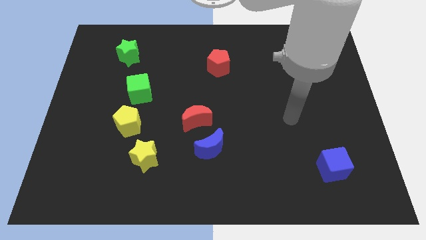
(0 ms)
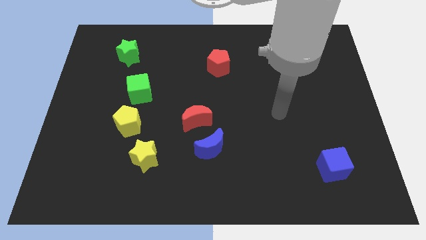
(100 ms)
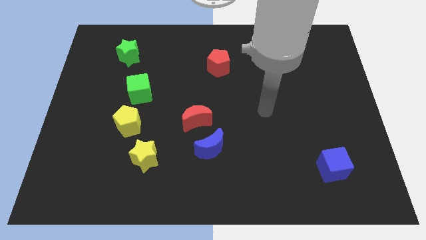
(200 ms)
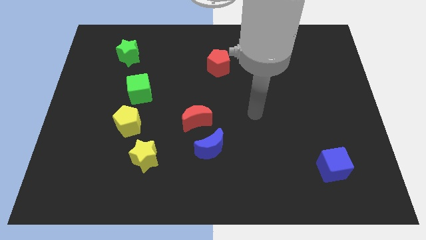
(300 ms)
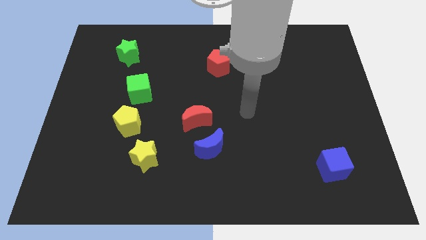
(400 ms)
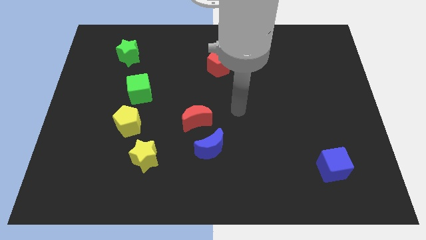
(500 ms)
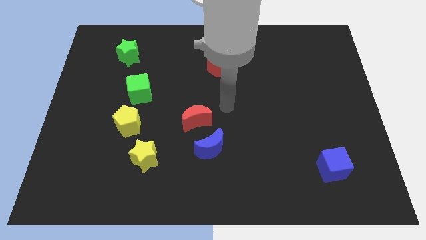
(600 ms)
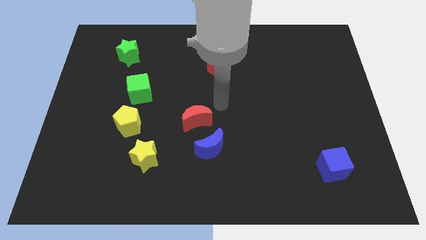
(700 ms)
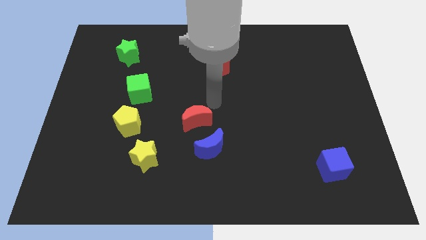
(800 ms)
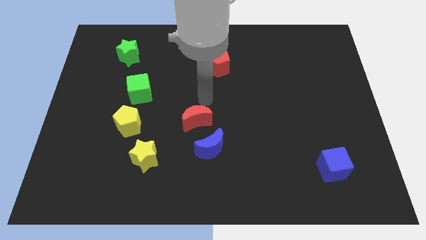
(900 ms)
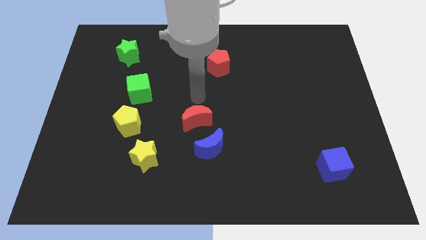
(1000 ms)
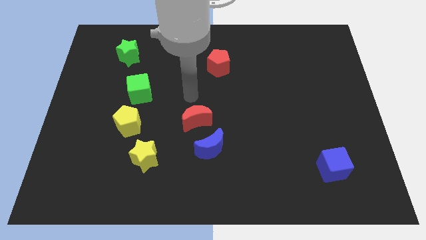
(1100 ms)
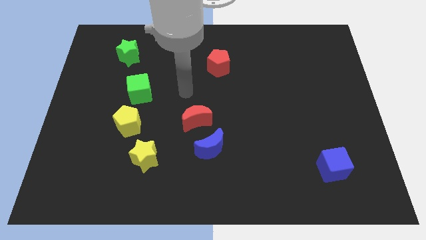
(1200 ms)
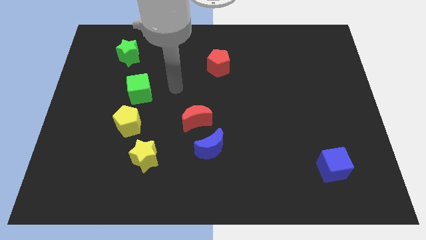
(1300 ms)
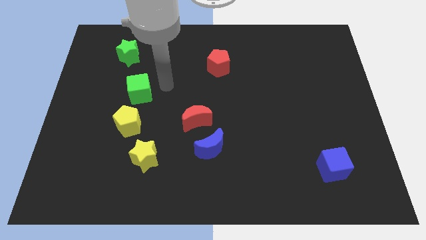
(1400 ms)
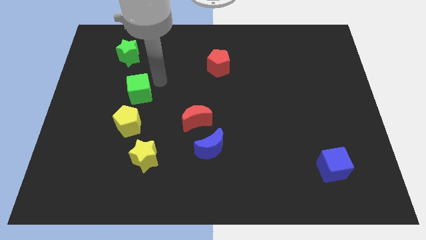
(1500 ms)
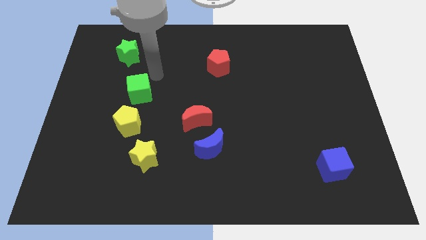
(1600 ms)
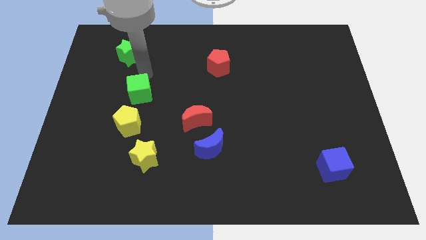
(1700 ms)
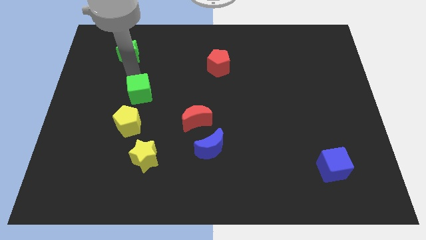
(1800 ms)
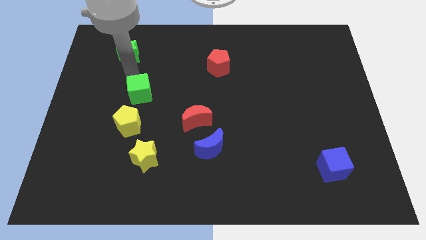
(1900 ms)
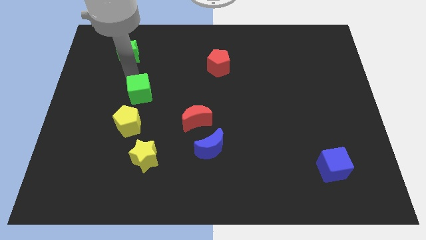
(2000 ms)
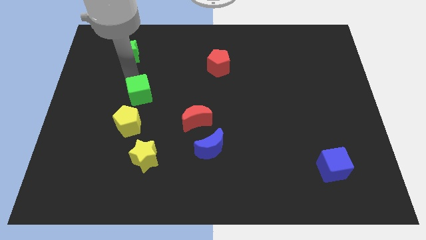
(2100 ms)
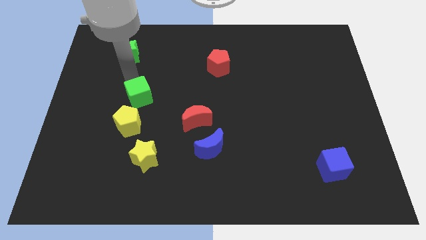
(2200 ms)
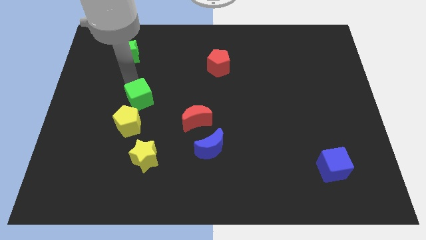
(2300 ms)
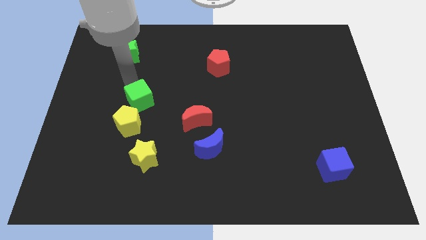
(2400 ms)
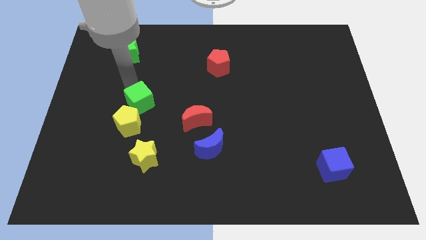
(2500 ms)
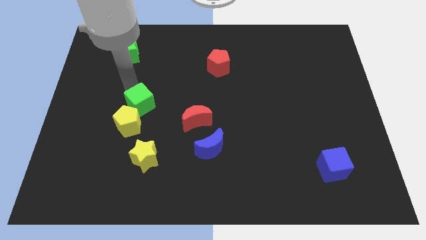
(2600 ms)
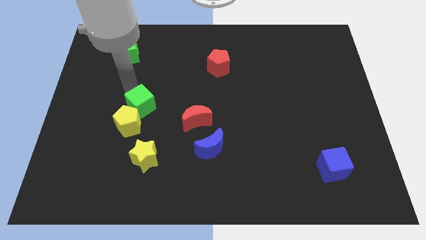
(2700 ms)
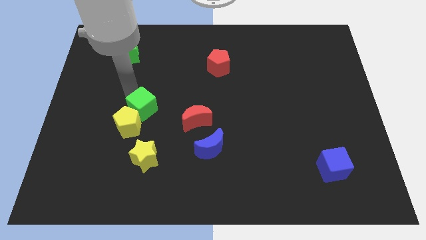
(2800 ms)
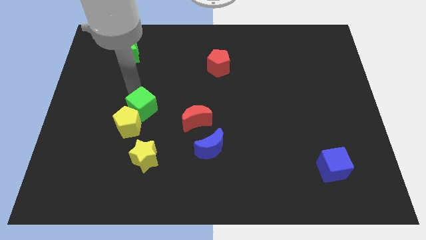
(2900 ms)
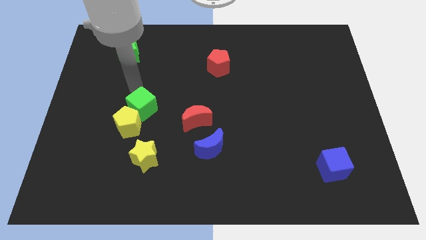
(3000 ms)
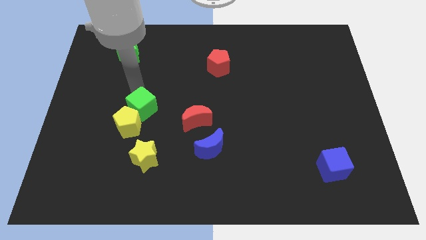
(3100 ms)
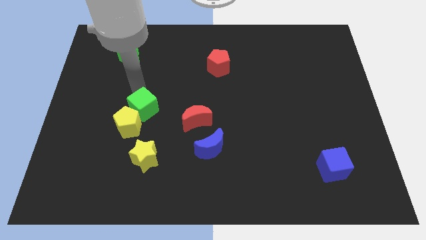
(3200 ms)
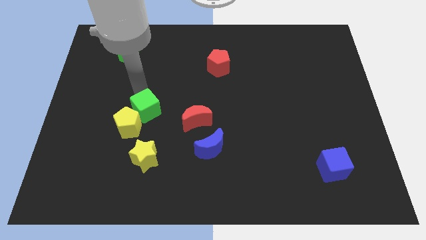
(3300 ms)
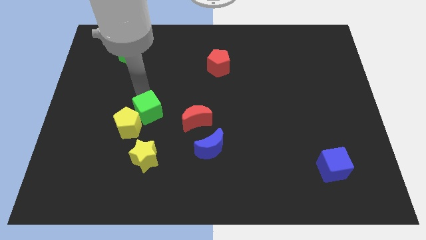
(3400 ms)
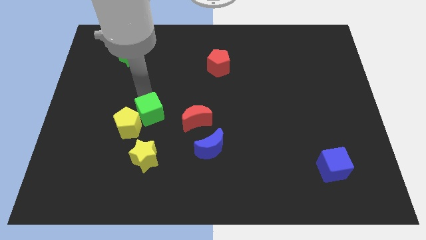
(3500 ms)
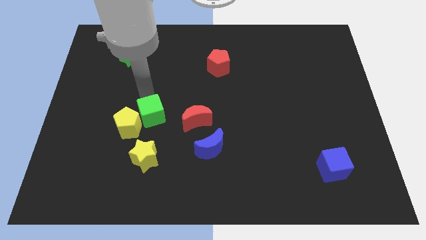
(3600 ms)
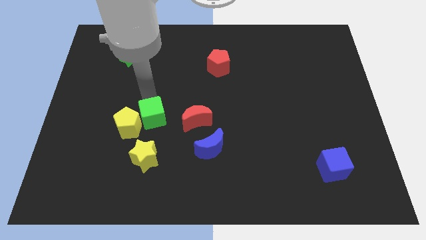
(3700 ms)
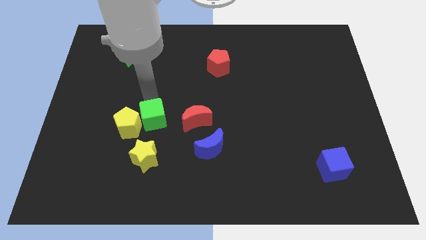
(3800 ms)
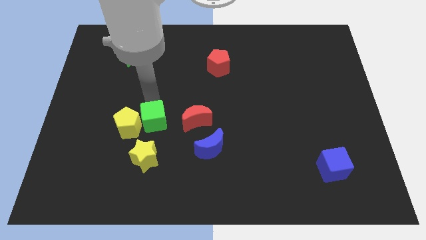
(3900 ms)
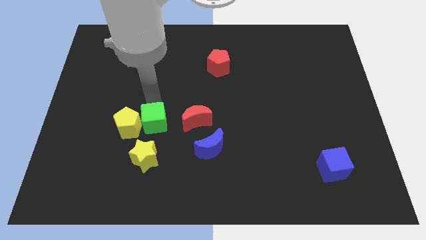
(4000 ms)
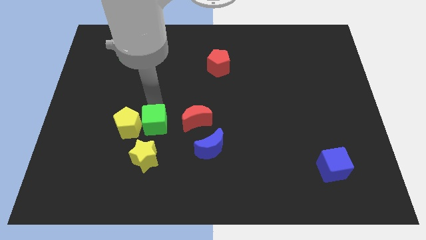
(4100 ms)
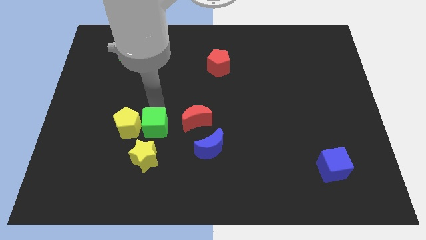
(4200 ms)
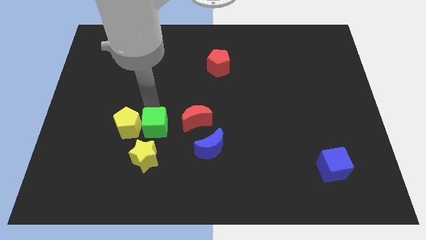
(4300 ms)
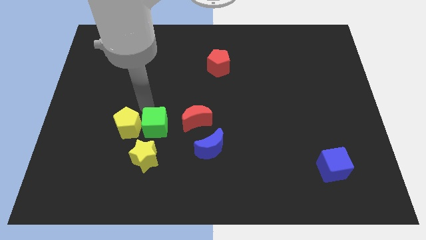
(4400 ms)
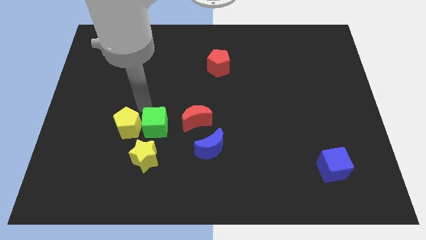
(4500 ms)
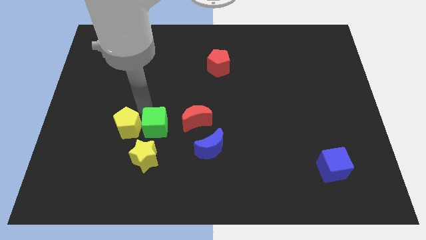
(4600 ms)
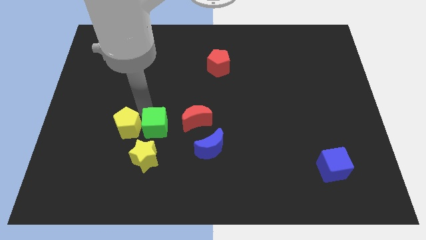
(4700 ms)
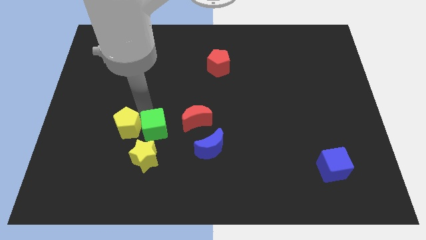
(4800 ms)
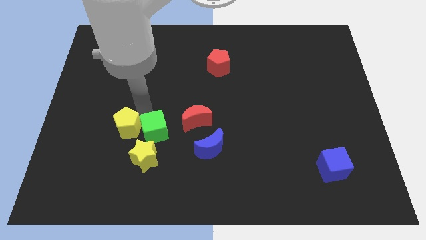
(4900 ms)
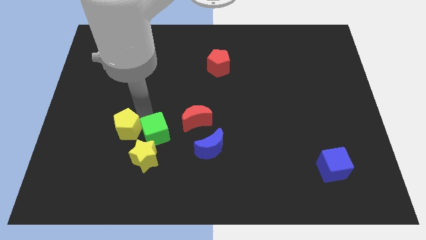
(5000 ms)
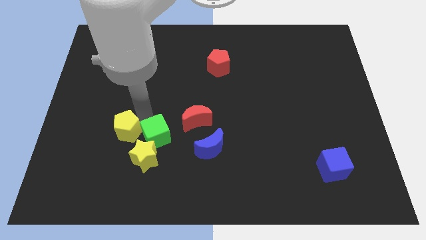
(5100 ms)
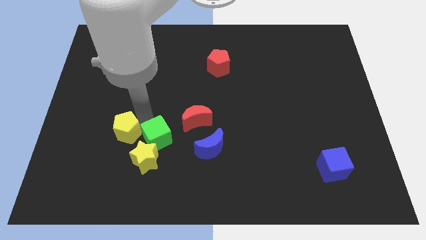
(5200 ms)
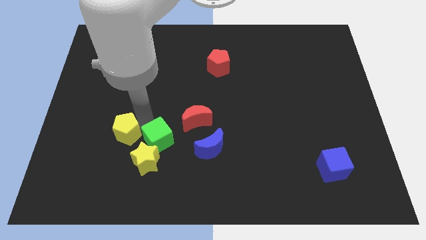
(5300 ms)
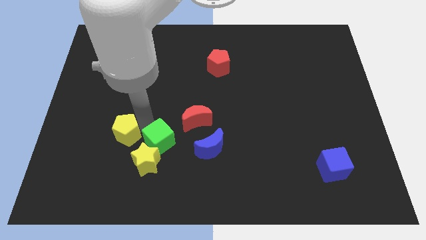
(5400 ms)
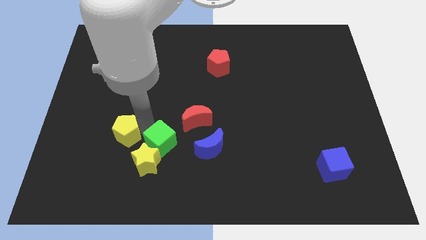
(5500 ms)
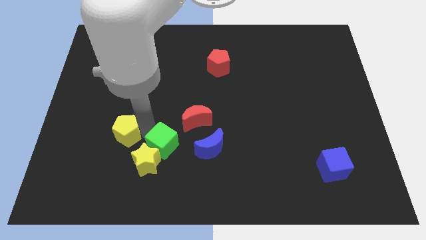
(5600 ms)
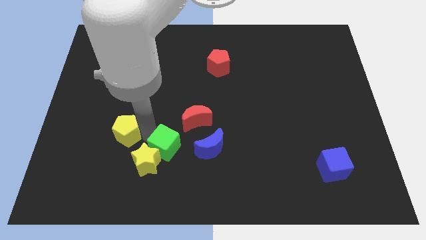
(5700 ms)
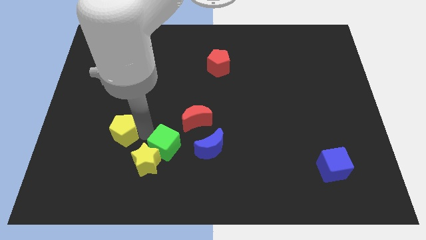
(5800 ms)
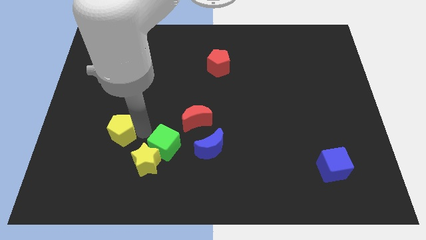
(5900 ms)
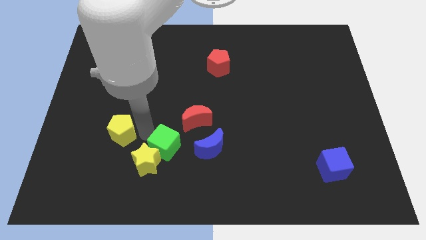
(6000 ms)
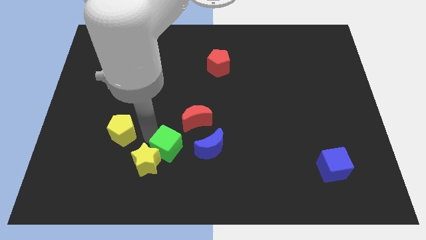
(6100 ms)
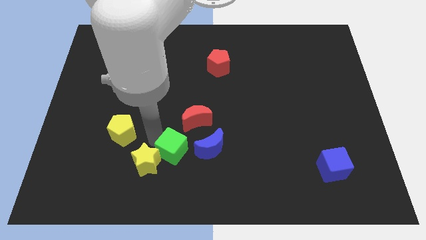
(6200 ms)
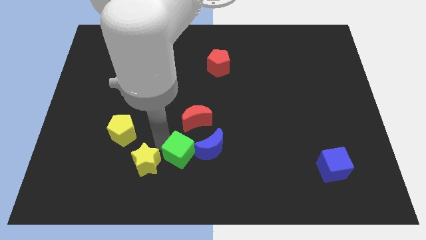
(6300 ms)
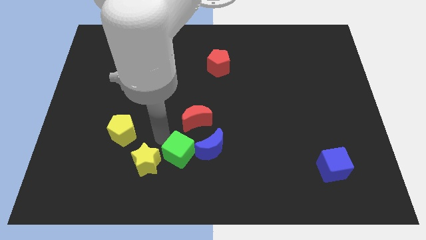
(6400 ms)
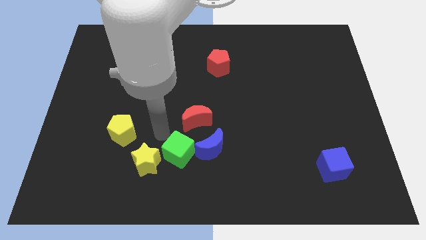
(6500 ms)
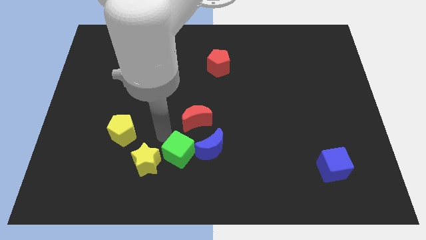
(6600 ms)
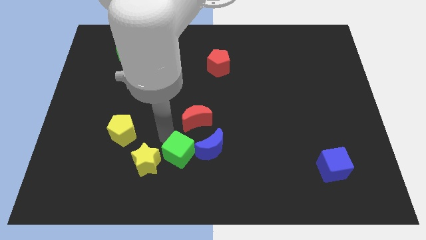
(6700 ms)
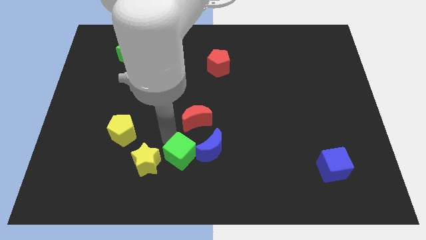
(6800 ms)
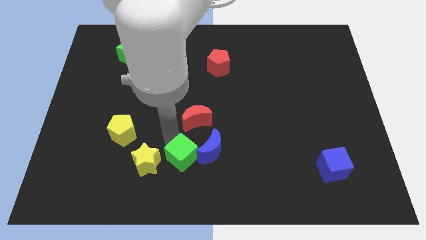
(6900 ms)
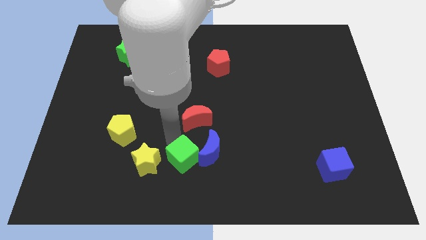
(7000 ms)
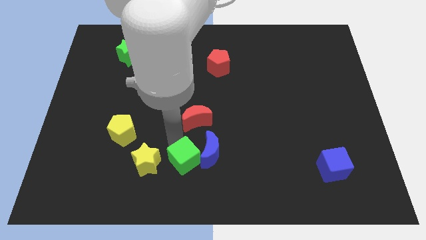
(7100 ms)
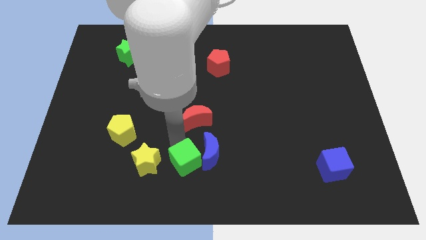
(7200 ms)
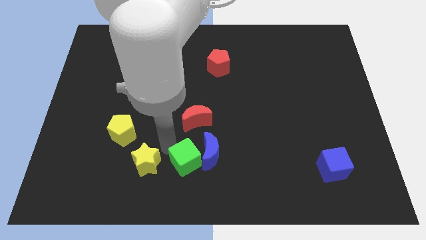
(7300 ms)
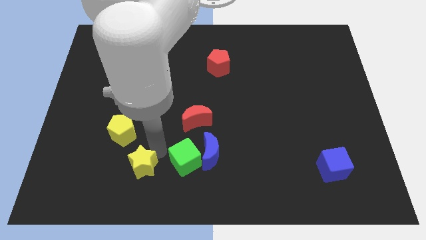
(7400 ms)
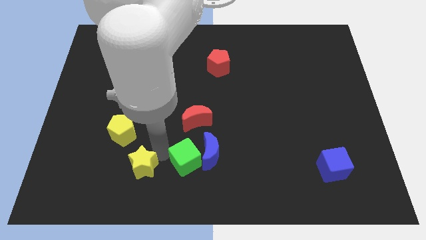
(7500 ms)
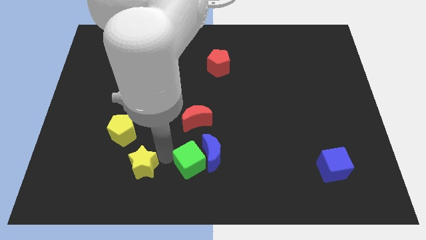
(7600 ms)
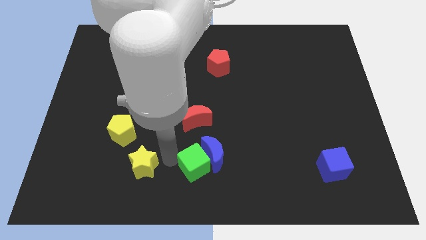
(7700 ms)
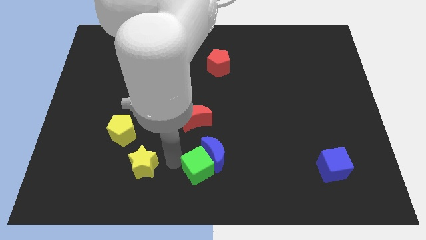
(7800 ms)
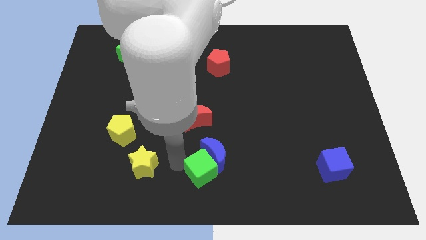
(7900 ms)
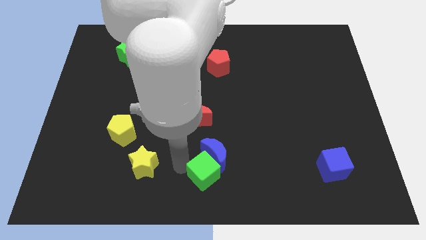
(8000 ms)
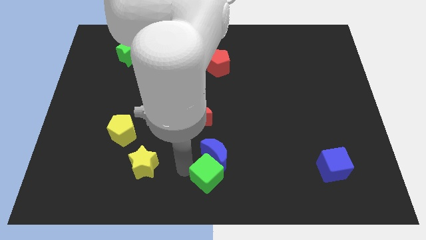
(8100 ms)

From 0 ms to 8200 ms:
move the green cube to the bottom right side of the blue moon
